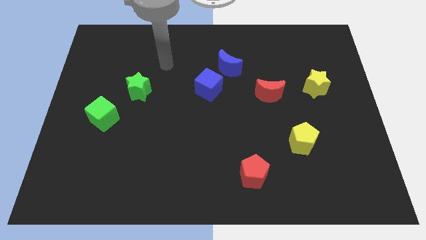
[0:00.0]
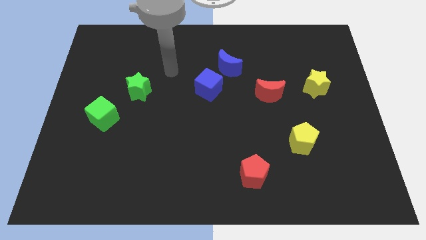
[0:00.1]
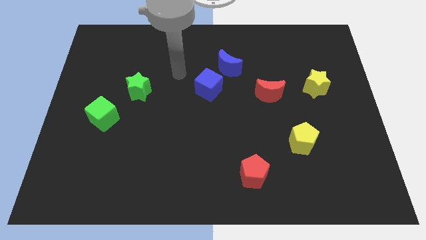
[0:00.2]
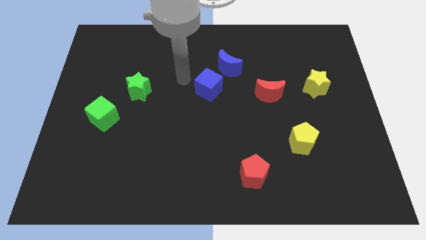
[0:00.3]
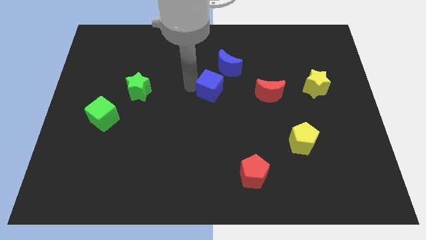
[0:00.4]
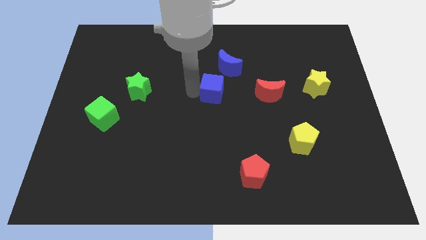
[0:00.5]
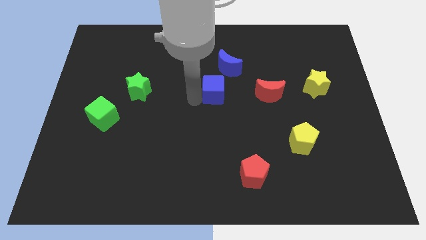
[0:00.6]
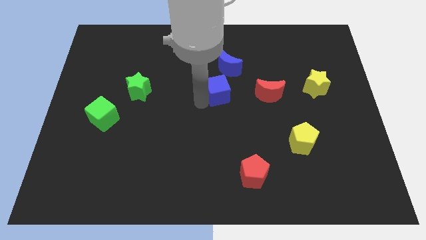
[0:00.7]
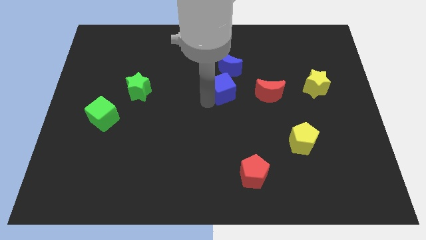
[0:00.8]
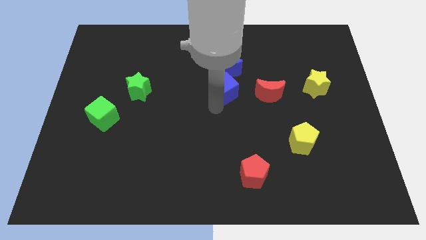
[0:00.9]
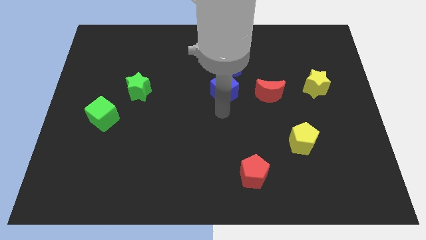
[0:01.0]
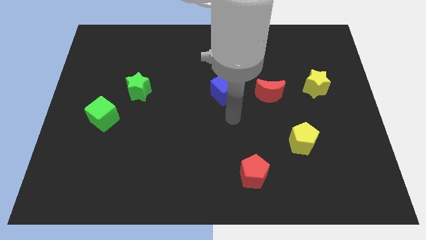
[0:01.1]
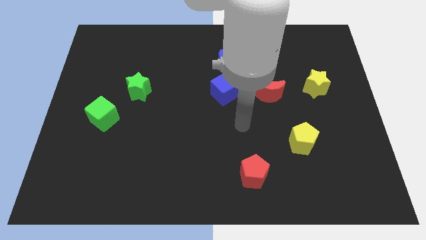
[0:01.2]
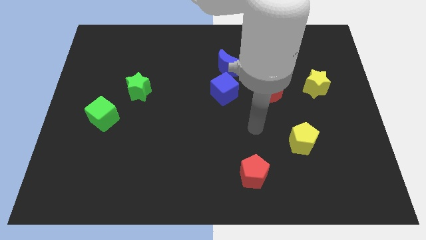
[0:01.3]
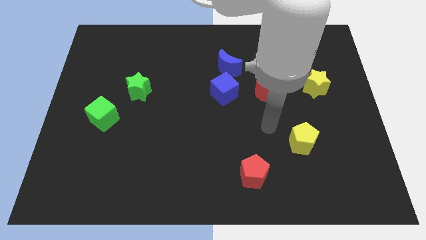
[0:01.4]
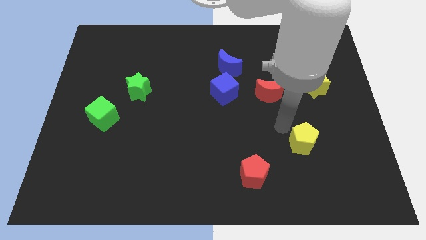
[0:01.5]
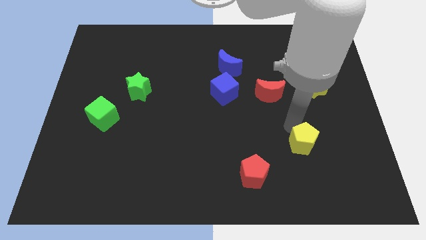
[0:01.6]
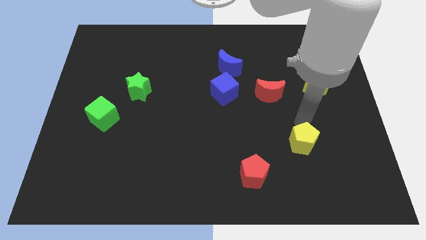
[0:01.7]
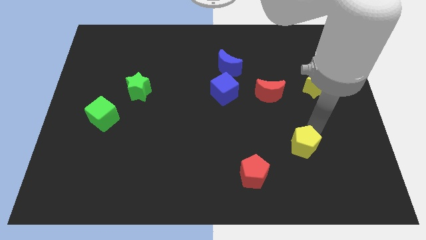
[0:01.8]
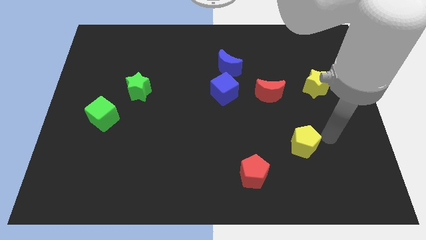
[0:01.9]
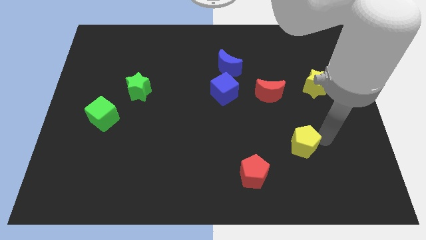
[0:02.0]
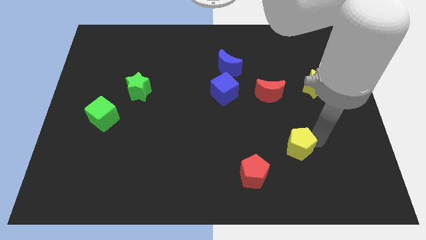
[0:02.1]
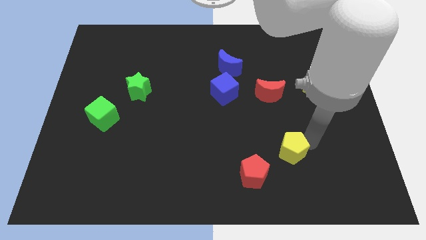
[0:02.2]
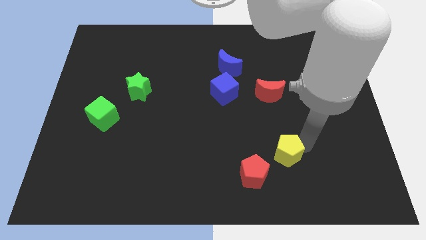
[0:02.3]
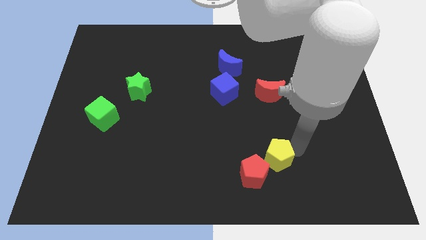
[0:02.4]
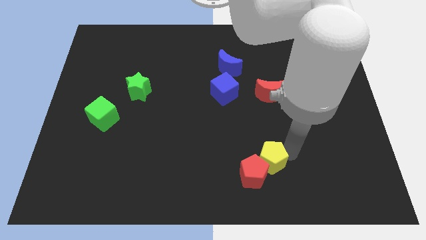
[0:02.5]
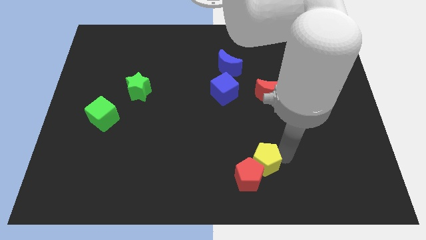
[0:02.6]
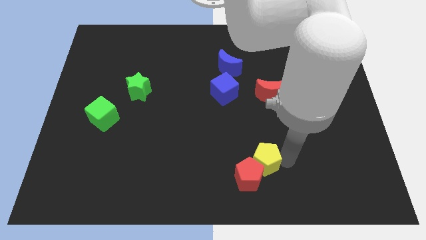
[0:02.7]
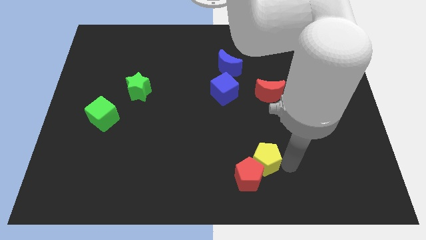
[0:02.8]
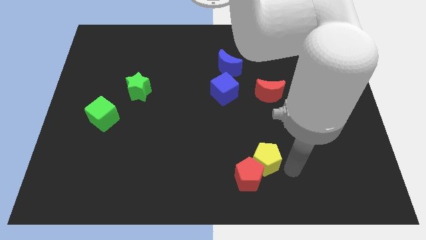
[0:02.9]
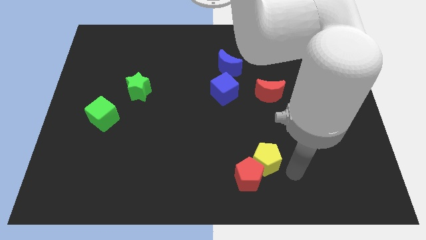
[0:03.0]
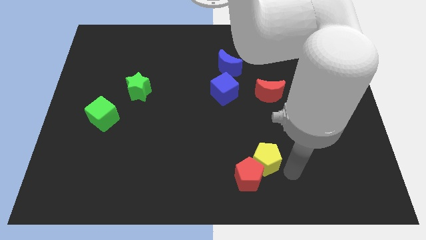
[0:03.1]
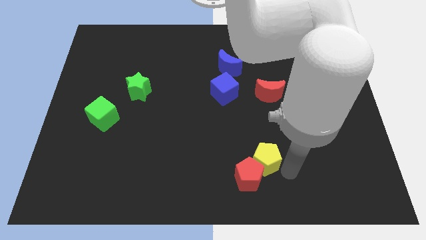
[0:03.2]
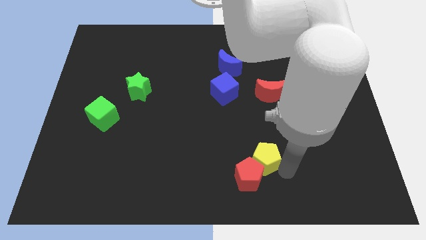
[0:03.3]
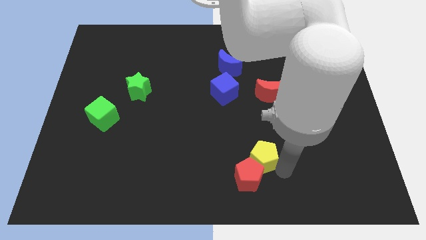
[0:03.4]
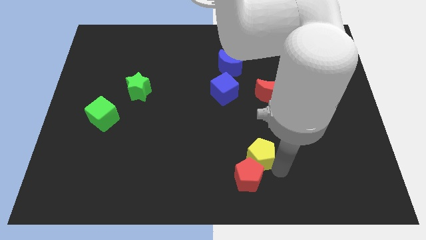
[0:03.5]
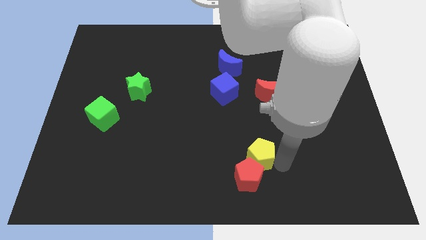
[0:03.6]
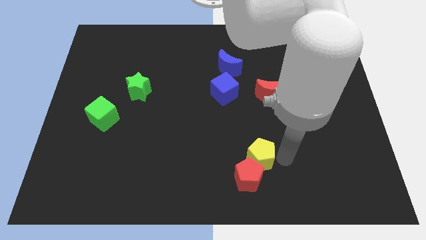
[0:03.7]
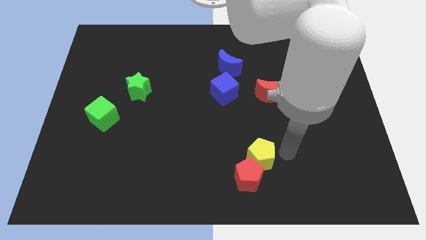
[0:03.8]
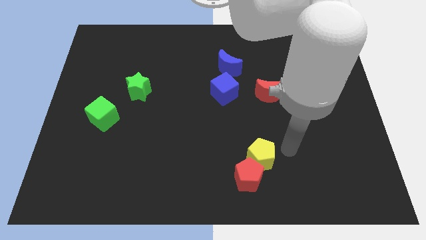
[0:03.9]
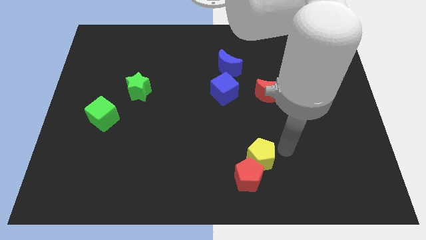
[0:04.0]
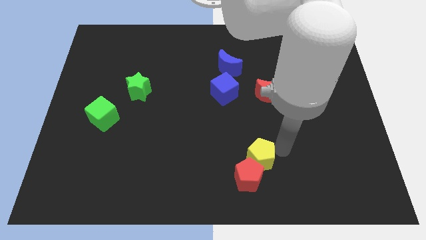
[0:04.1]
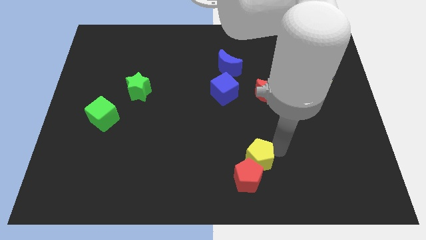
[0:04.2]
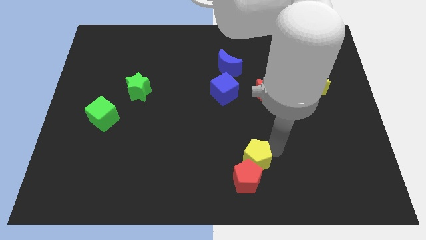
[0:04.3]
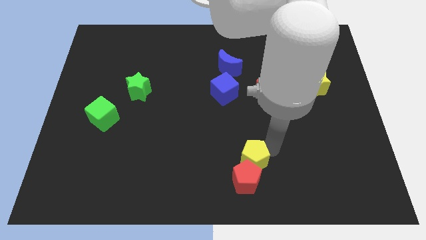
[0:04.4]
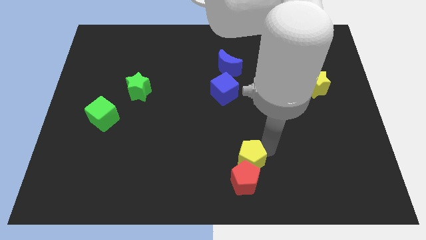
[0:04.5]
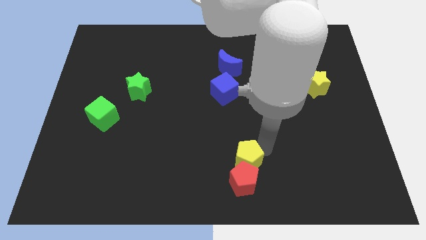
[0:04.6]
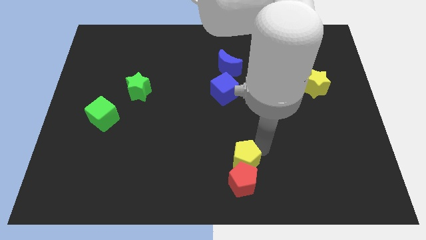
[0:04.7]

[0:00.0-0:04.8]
put the yellow pentagon to the bottom side

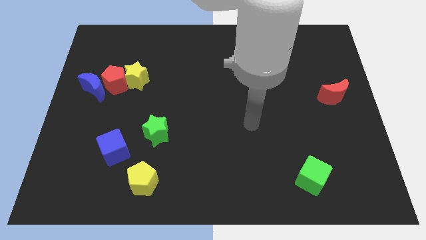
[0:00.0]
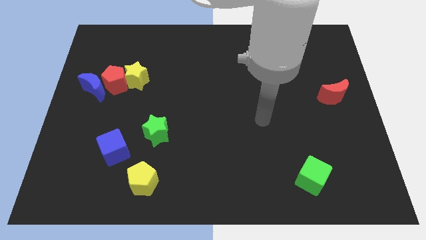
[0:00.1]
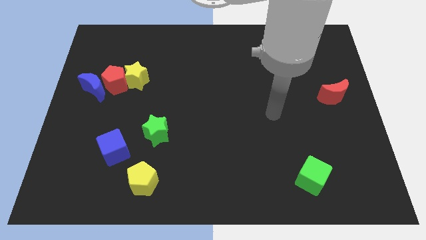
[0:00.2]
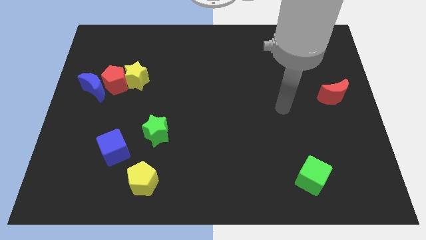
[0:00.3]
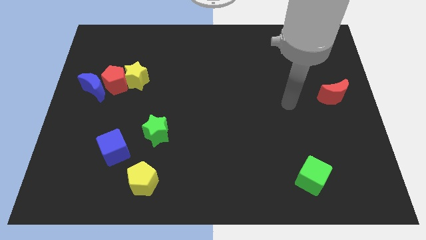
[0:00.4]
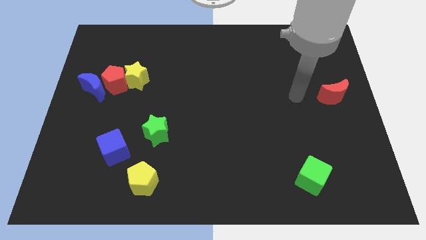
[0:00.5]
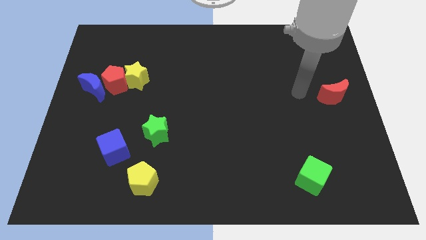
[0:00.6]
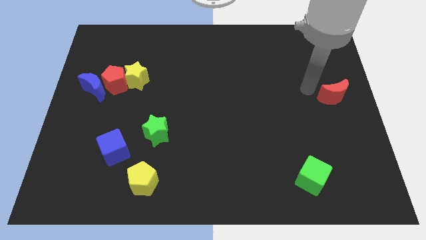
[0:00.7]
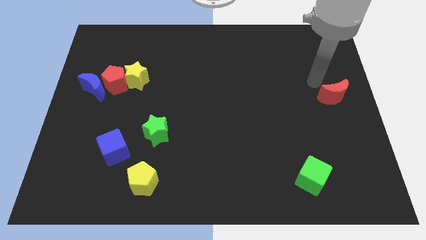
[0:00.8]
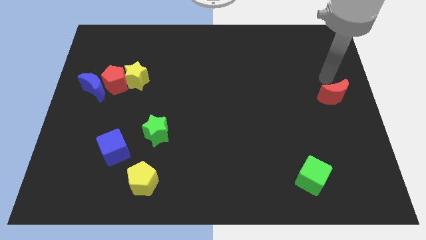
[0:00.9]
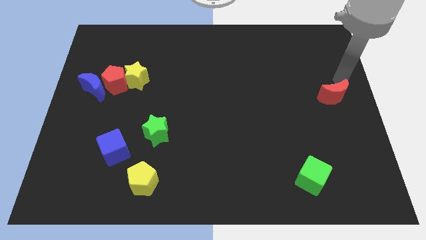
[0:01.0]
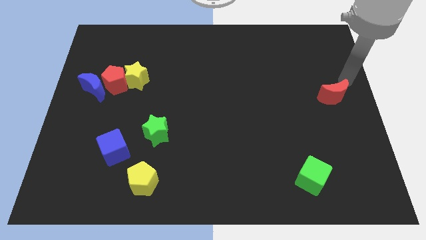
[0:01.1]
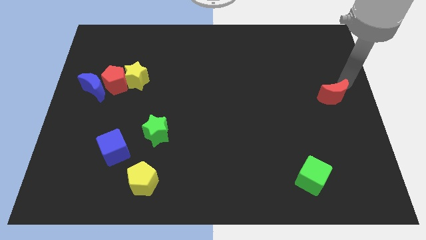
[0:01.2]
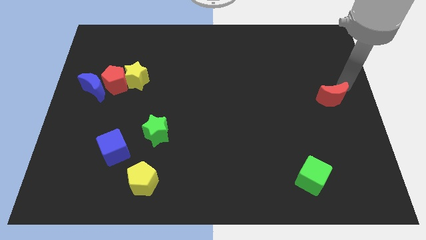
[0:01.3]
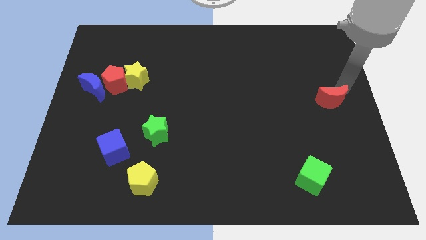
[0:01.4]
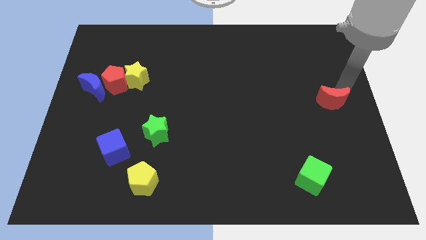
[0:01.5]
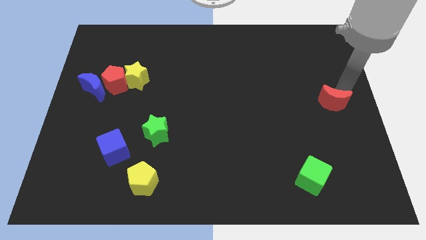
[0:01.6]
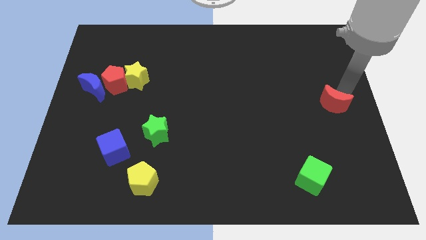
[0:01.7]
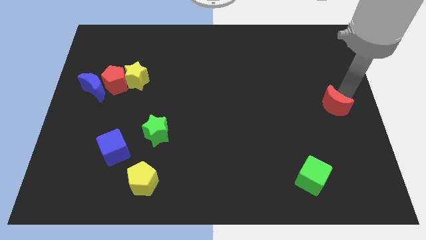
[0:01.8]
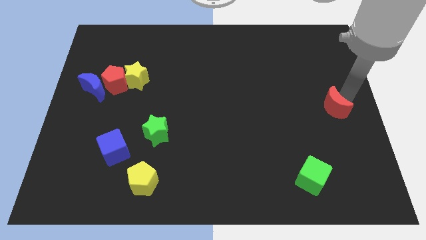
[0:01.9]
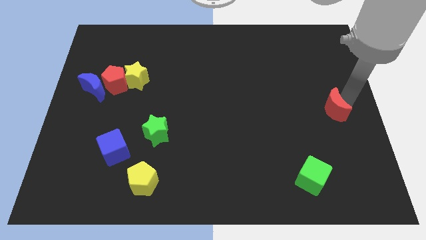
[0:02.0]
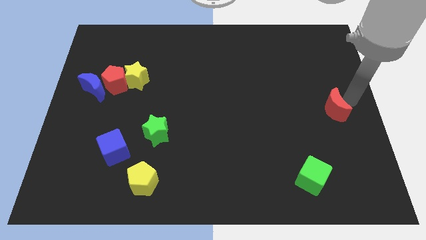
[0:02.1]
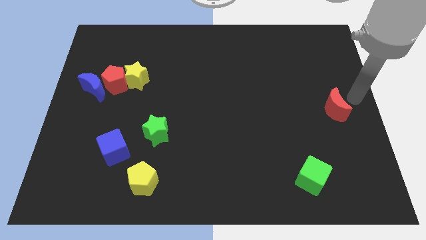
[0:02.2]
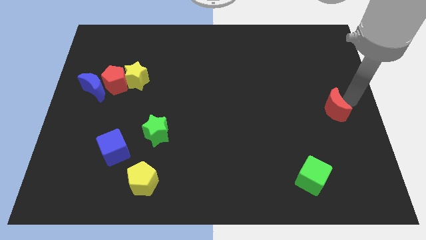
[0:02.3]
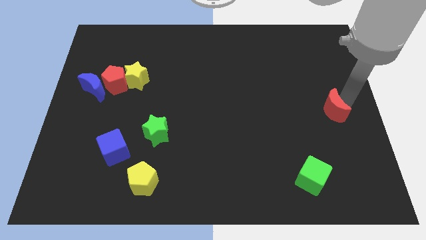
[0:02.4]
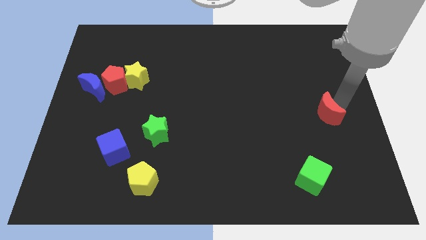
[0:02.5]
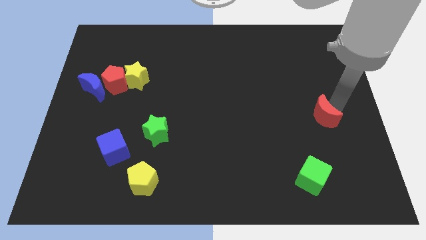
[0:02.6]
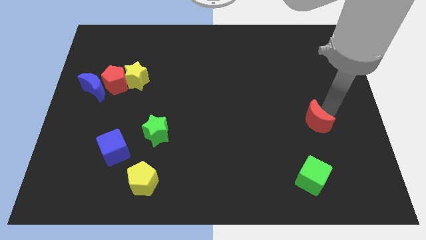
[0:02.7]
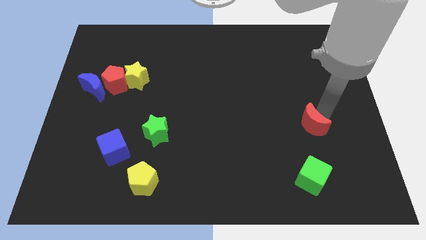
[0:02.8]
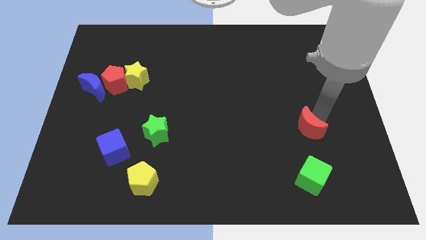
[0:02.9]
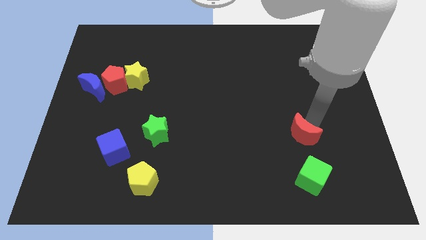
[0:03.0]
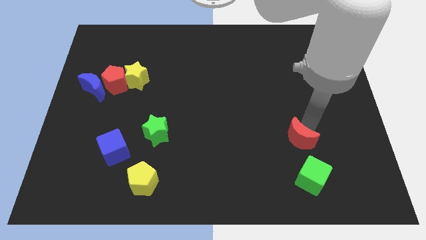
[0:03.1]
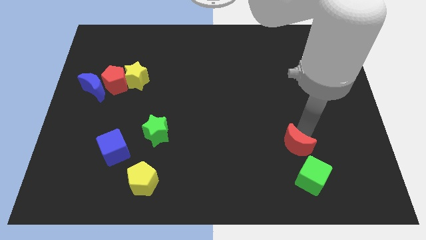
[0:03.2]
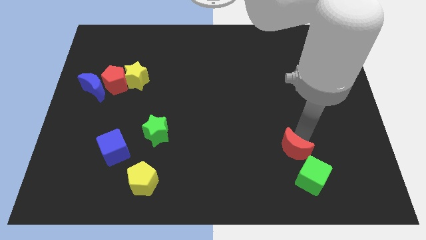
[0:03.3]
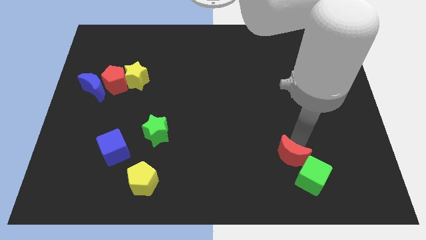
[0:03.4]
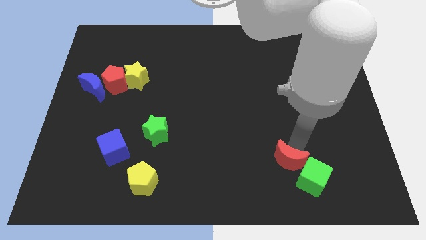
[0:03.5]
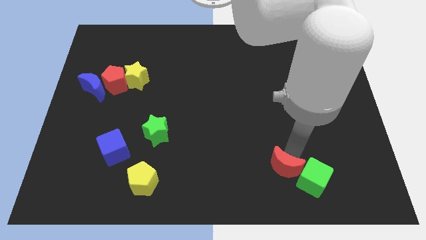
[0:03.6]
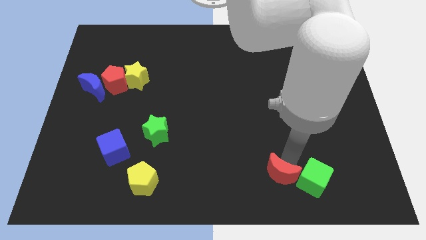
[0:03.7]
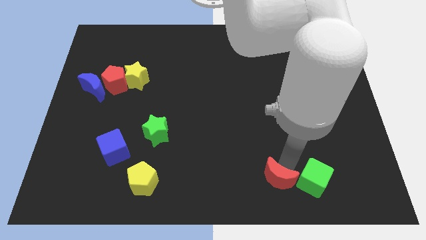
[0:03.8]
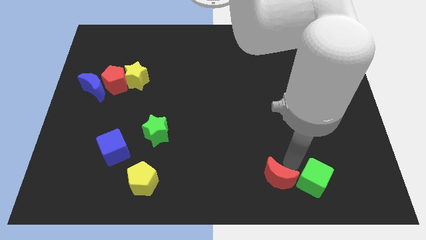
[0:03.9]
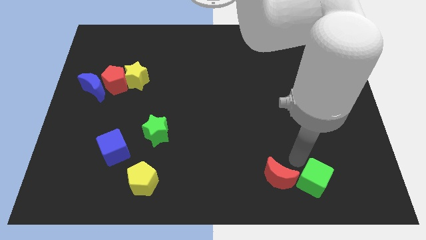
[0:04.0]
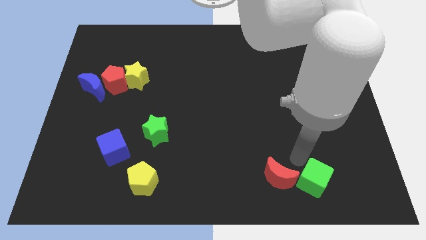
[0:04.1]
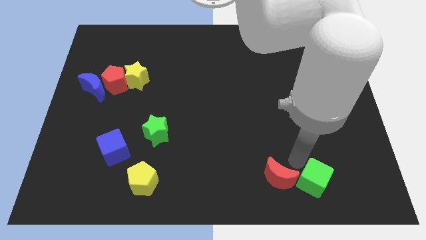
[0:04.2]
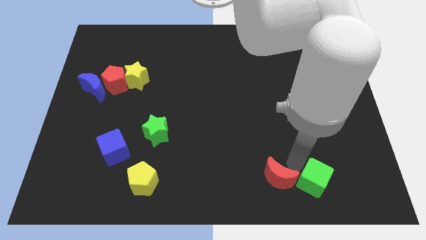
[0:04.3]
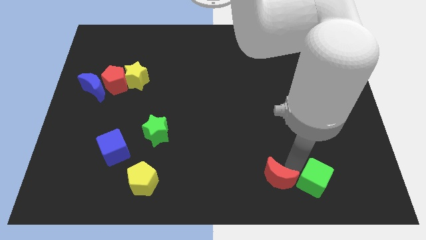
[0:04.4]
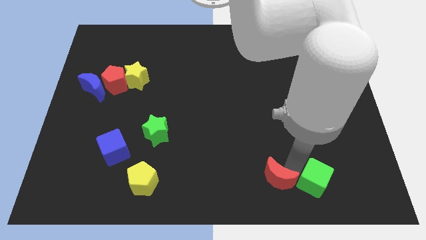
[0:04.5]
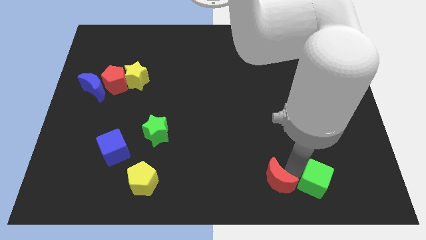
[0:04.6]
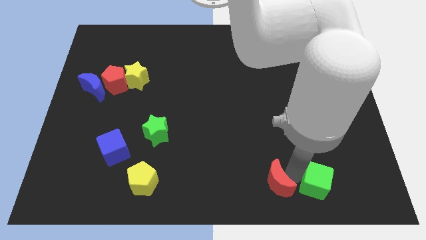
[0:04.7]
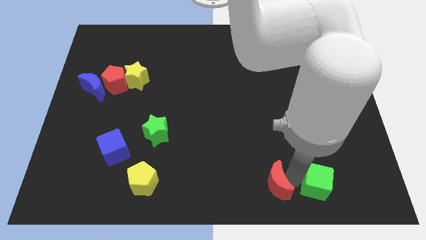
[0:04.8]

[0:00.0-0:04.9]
slide the red moon to the bottom side
